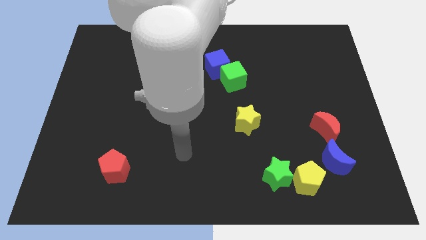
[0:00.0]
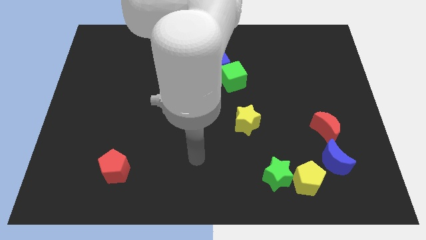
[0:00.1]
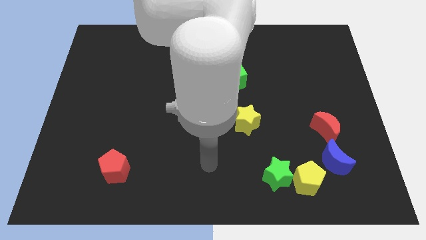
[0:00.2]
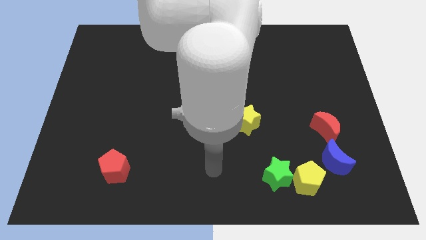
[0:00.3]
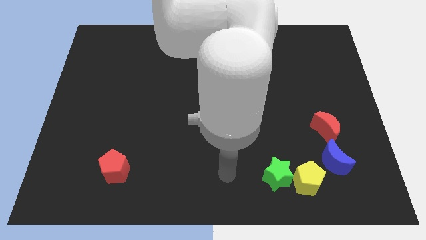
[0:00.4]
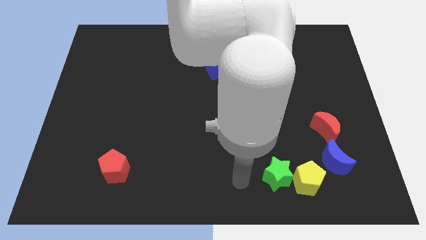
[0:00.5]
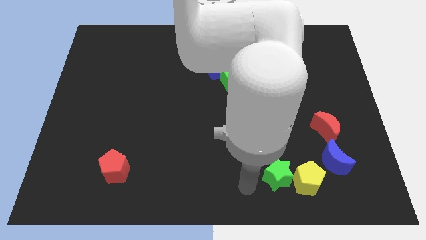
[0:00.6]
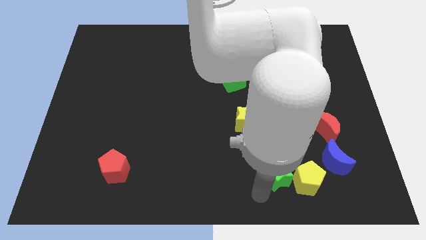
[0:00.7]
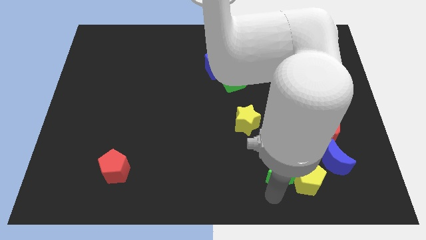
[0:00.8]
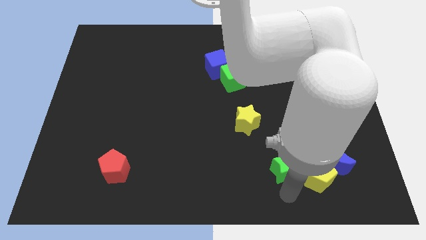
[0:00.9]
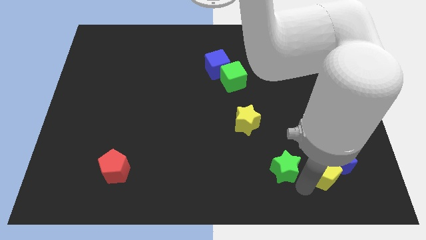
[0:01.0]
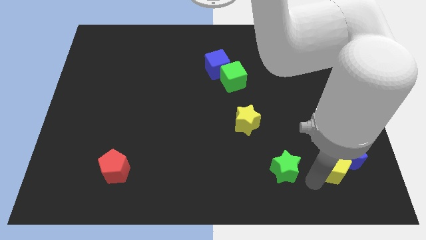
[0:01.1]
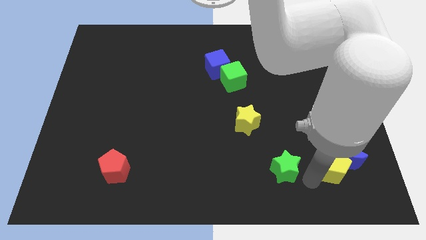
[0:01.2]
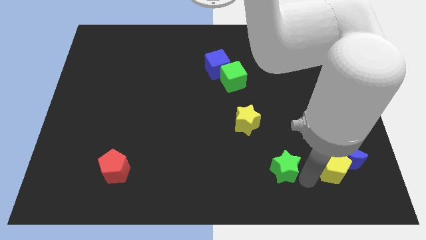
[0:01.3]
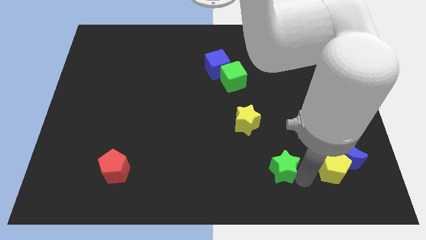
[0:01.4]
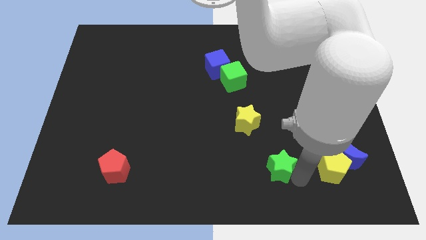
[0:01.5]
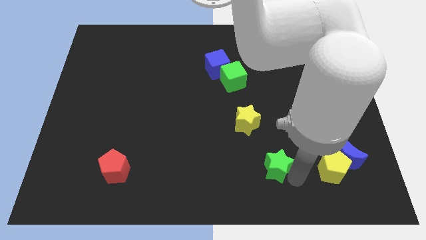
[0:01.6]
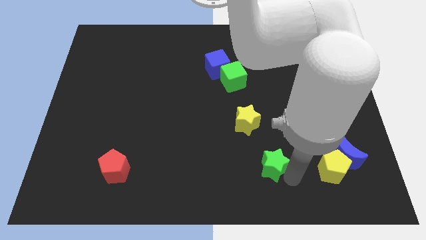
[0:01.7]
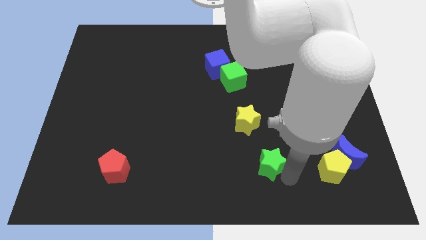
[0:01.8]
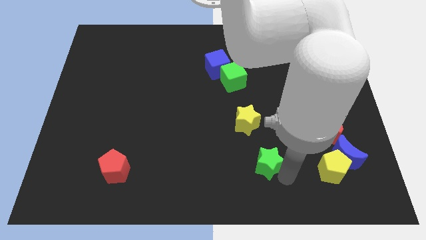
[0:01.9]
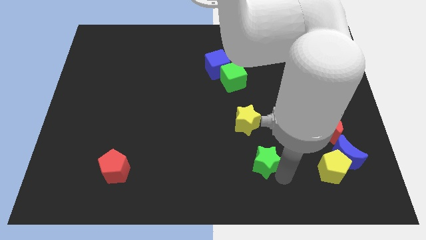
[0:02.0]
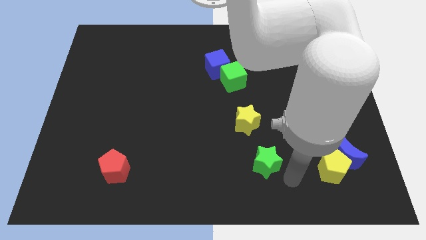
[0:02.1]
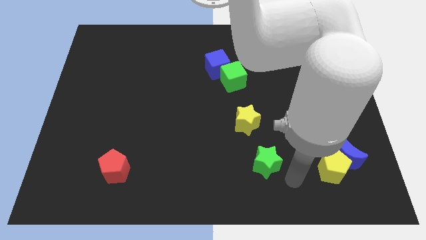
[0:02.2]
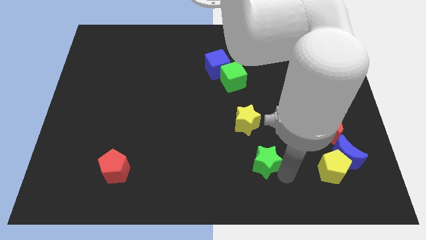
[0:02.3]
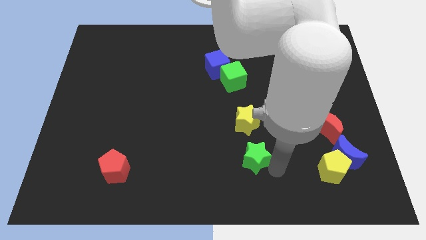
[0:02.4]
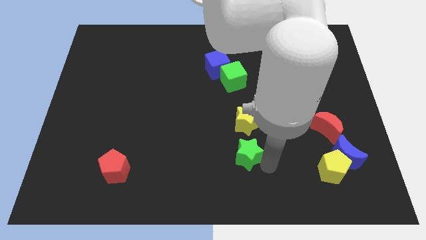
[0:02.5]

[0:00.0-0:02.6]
push the green star up and then to the left a little bit

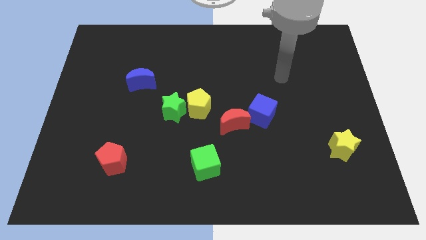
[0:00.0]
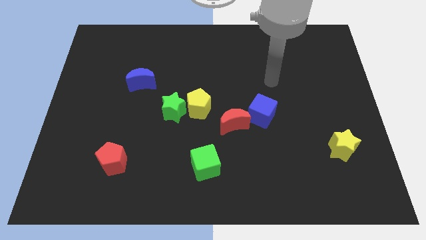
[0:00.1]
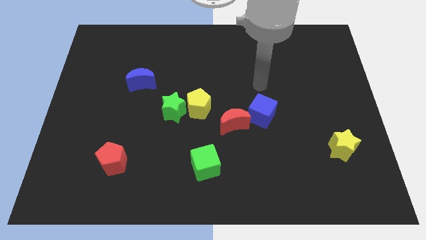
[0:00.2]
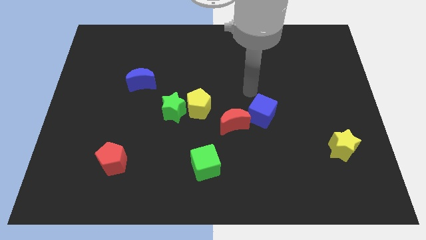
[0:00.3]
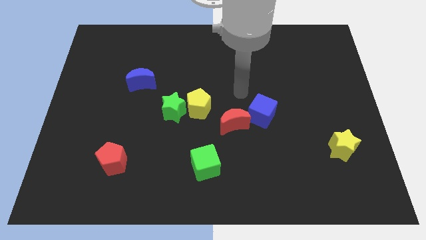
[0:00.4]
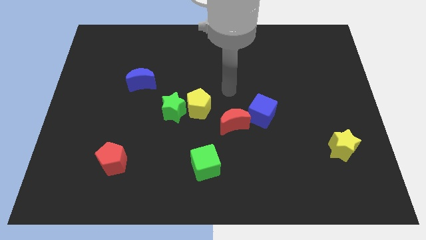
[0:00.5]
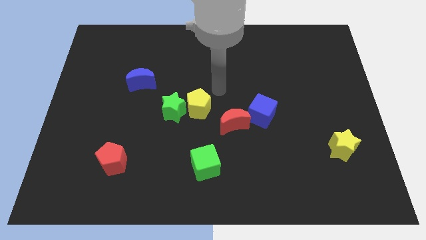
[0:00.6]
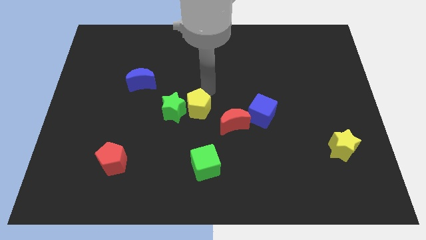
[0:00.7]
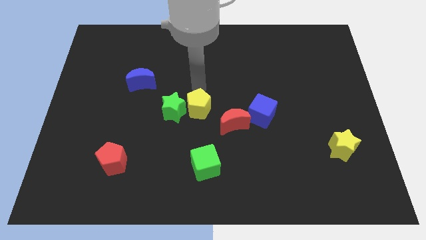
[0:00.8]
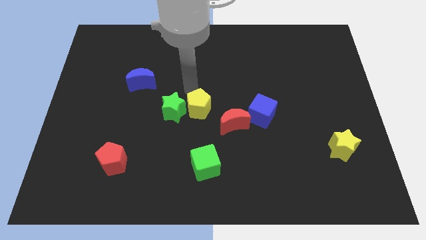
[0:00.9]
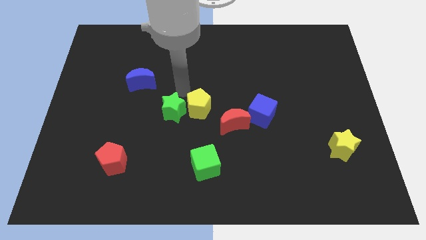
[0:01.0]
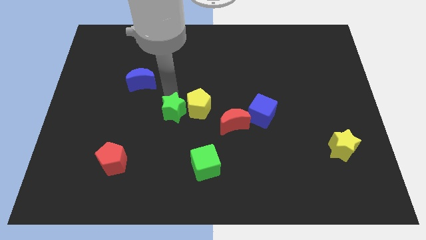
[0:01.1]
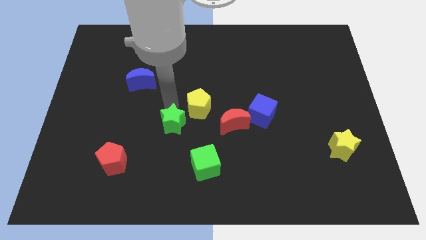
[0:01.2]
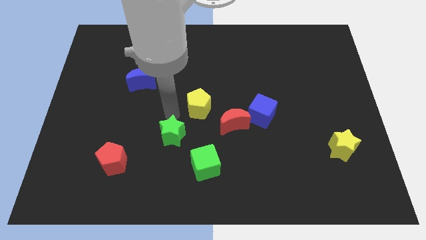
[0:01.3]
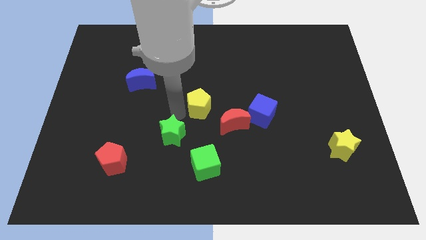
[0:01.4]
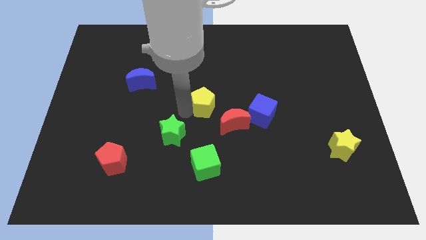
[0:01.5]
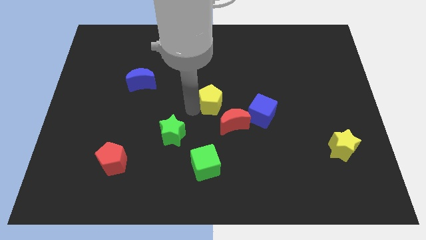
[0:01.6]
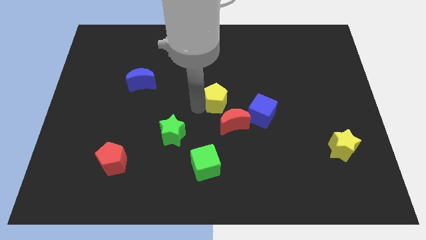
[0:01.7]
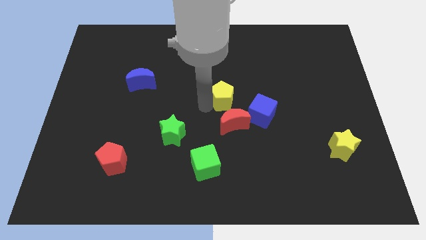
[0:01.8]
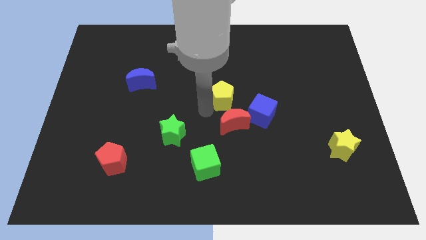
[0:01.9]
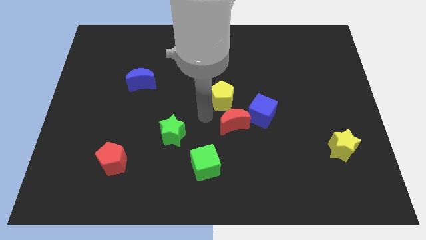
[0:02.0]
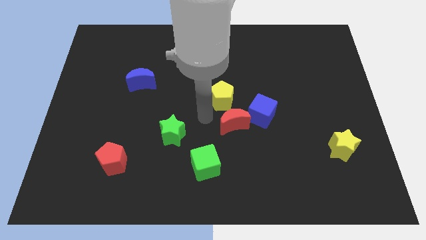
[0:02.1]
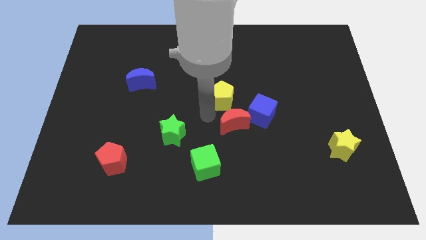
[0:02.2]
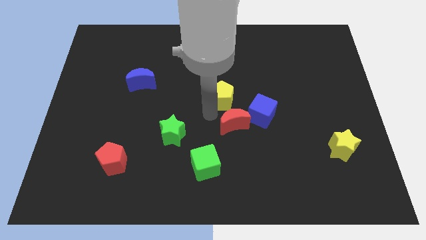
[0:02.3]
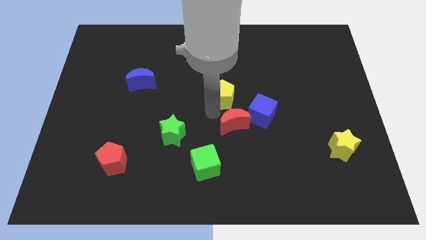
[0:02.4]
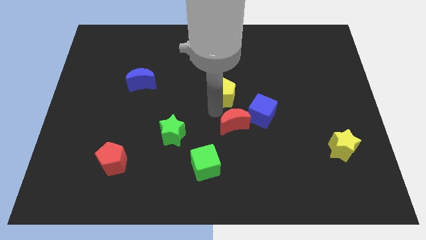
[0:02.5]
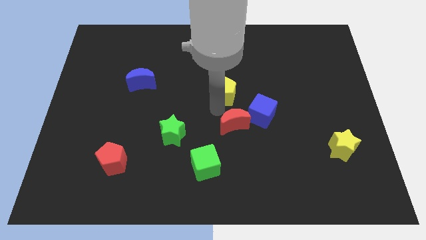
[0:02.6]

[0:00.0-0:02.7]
move the yellow pentagon up and right a little

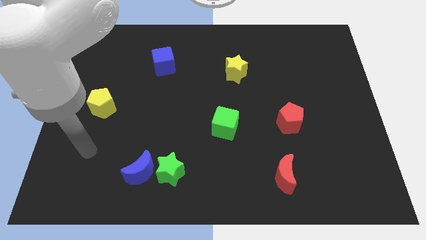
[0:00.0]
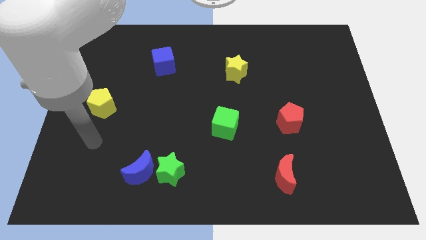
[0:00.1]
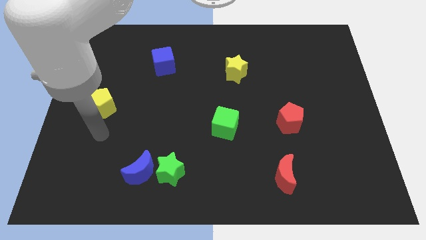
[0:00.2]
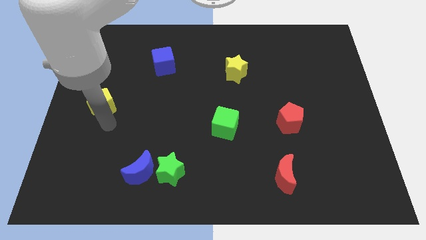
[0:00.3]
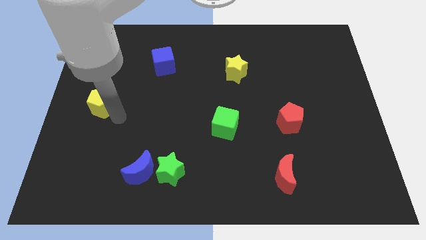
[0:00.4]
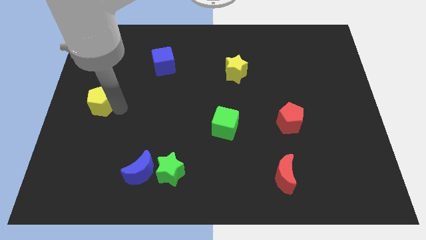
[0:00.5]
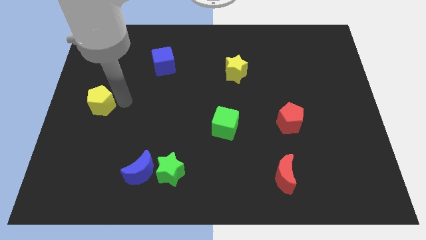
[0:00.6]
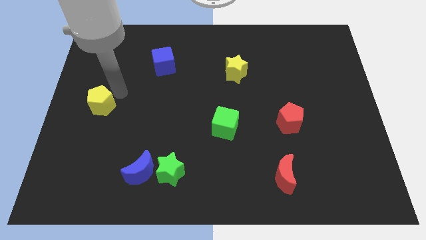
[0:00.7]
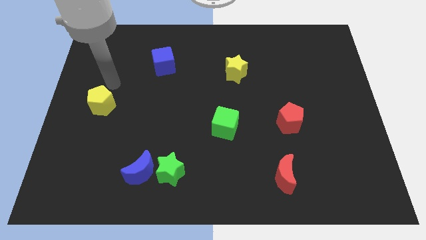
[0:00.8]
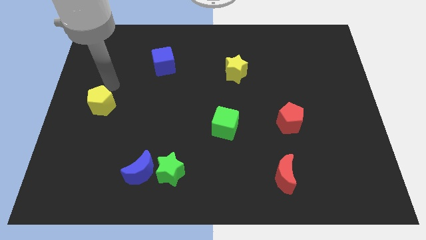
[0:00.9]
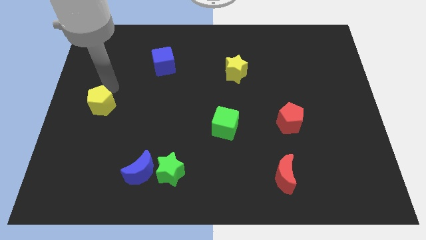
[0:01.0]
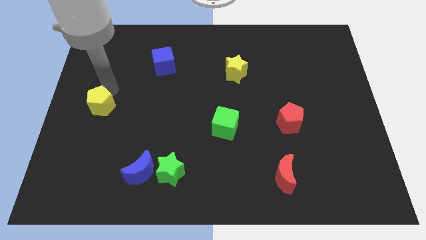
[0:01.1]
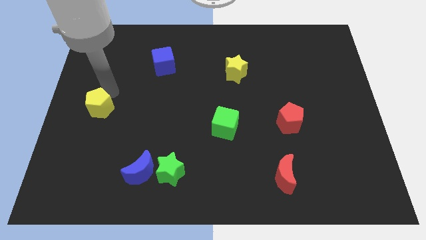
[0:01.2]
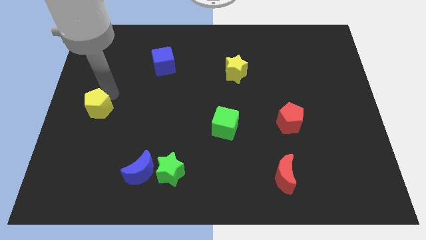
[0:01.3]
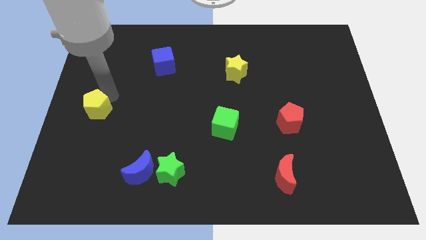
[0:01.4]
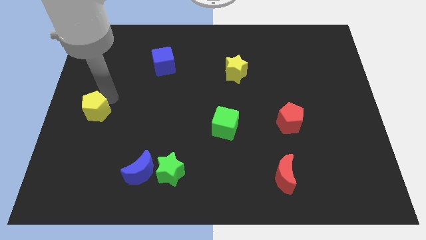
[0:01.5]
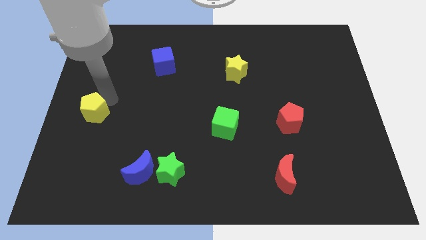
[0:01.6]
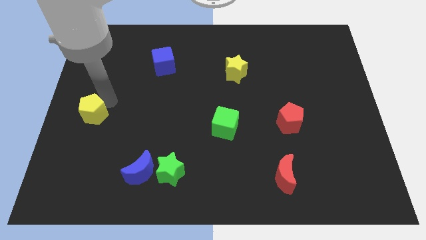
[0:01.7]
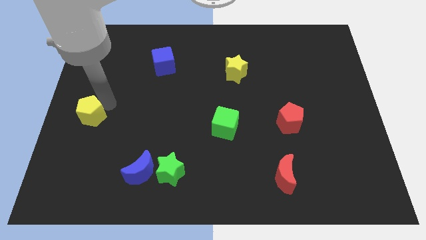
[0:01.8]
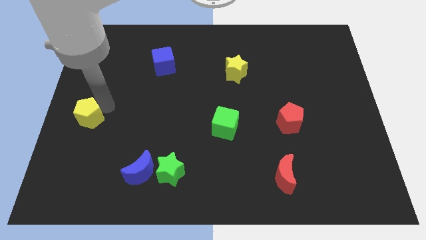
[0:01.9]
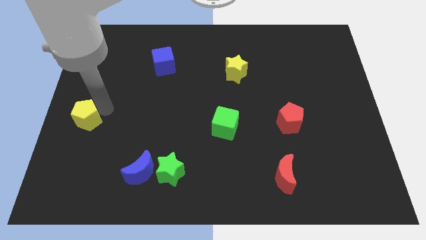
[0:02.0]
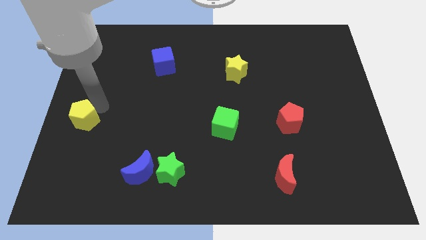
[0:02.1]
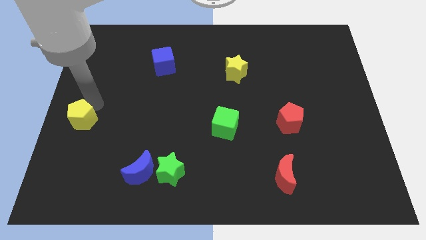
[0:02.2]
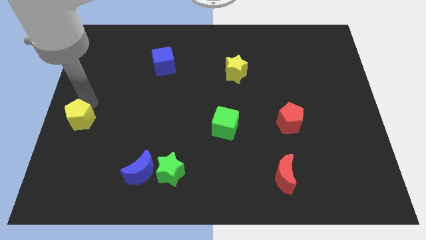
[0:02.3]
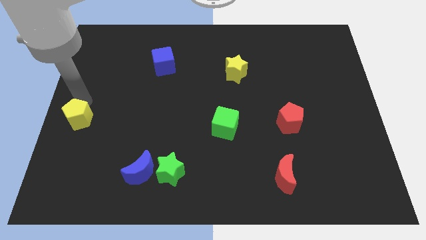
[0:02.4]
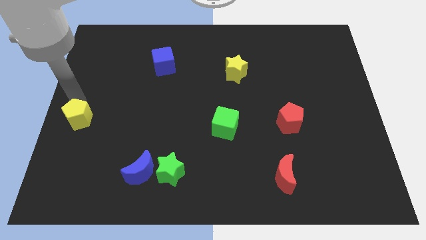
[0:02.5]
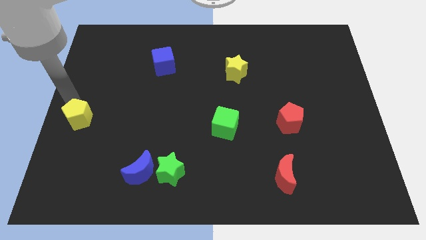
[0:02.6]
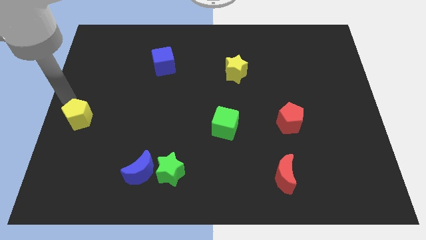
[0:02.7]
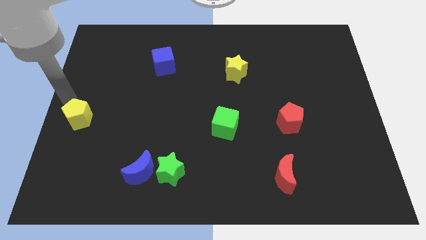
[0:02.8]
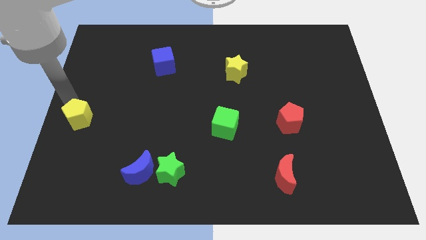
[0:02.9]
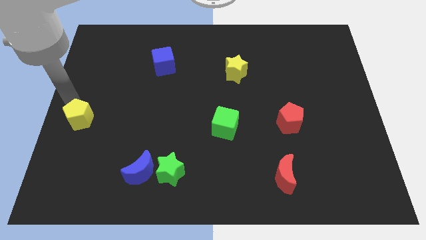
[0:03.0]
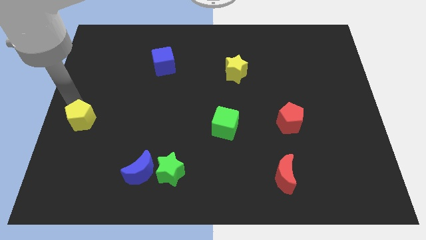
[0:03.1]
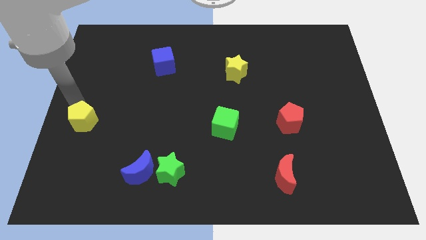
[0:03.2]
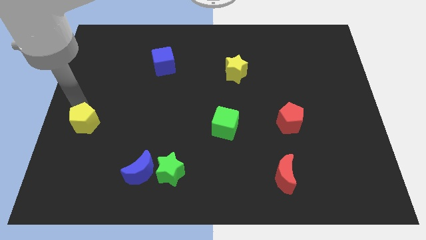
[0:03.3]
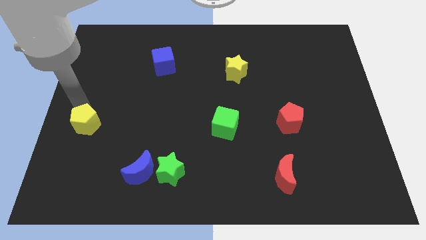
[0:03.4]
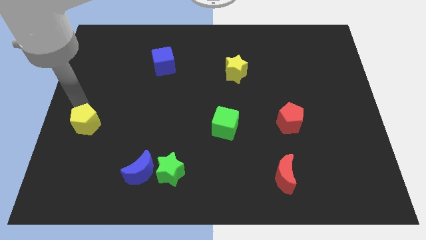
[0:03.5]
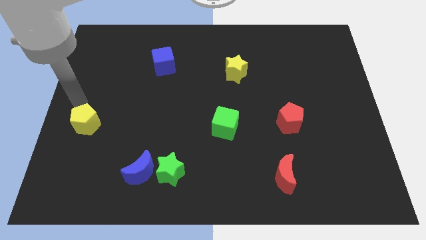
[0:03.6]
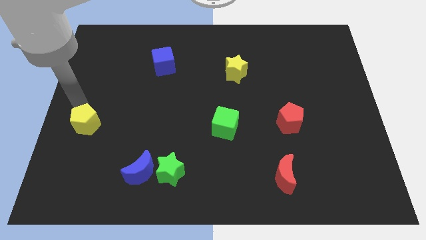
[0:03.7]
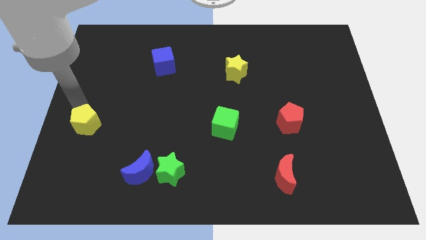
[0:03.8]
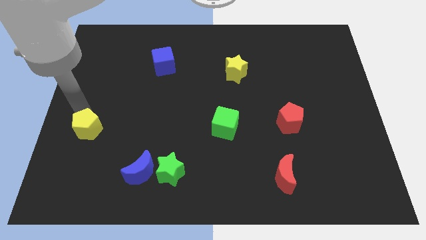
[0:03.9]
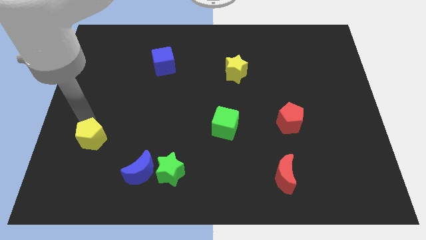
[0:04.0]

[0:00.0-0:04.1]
slide the yellow pentagon a bit downwards
